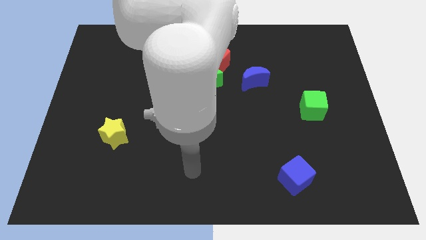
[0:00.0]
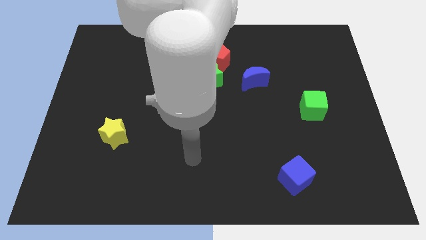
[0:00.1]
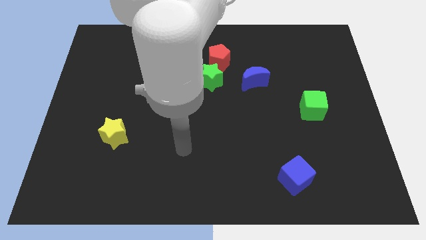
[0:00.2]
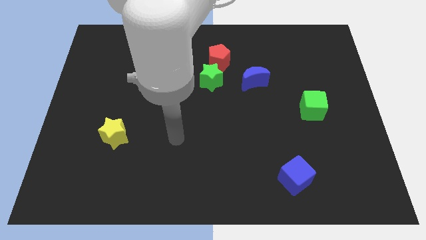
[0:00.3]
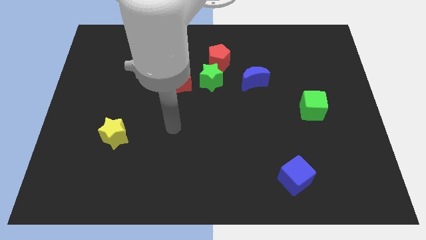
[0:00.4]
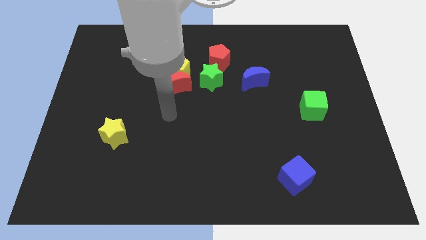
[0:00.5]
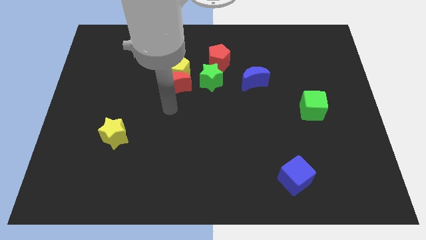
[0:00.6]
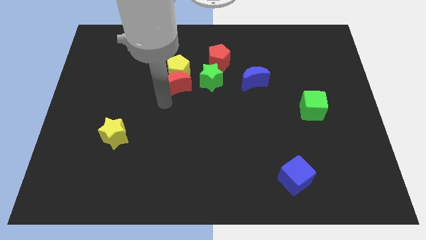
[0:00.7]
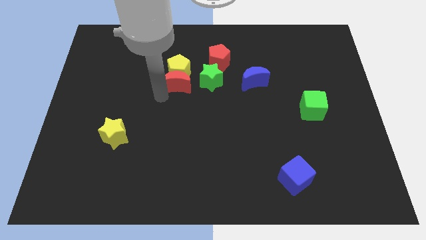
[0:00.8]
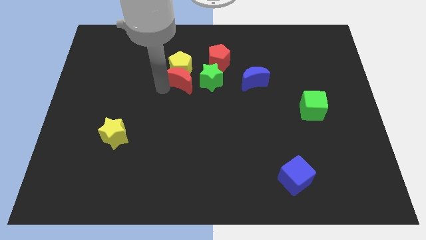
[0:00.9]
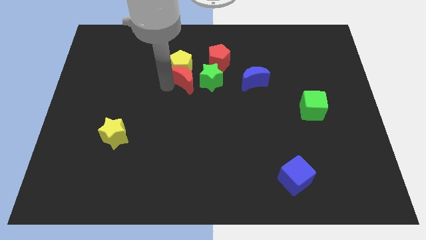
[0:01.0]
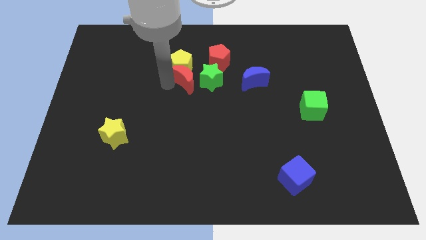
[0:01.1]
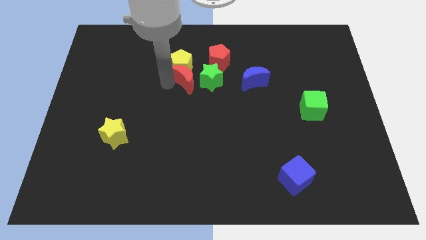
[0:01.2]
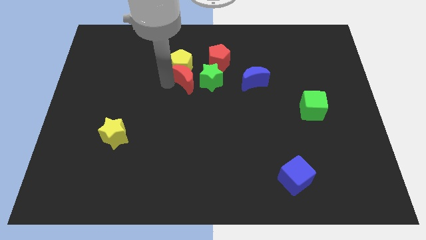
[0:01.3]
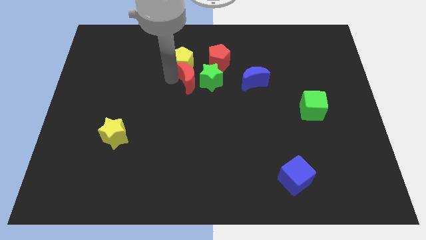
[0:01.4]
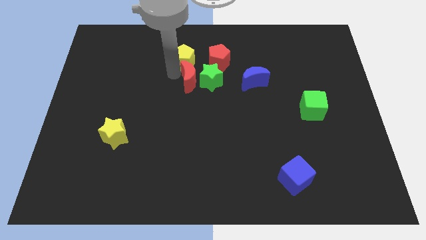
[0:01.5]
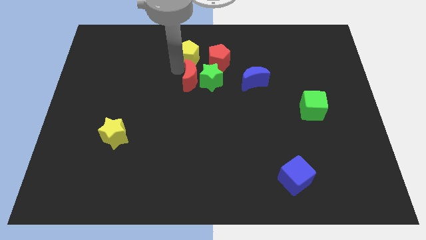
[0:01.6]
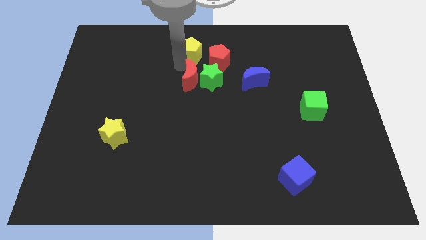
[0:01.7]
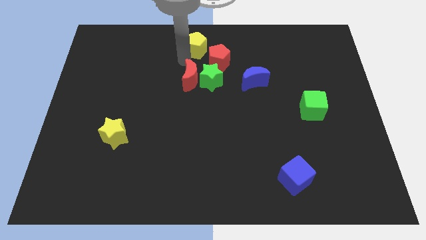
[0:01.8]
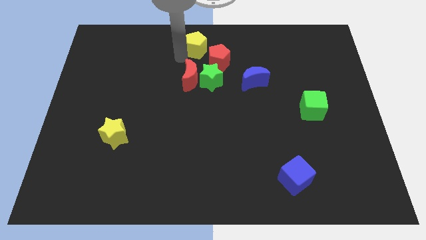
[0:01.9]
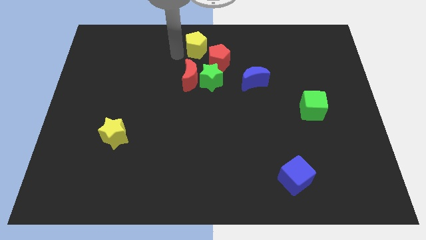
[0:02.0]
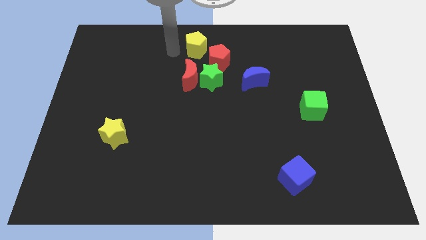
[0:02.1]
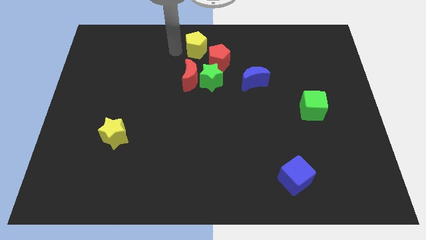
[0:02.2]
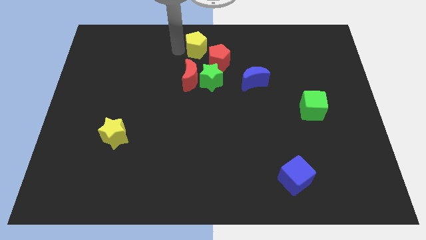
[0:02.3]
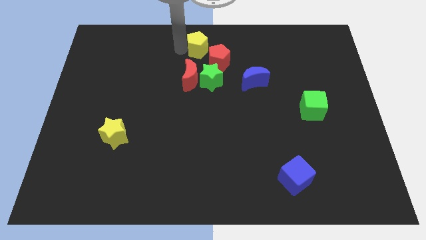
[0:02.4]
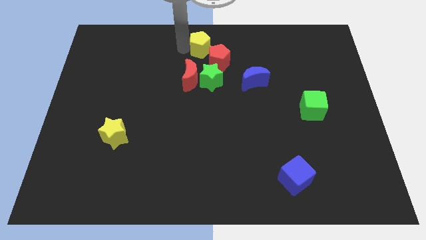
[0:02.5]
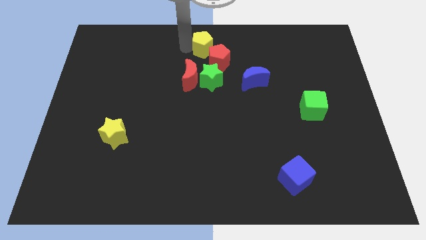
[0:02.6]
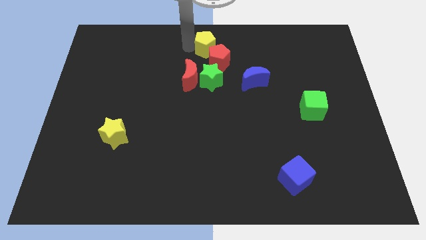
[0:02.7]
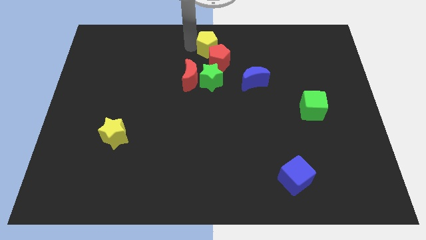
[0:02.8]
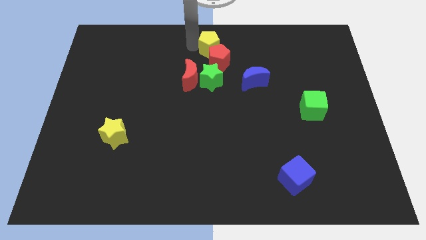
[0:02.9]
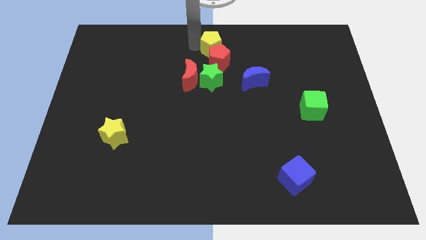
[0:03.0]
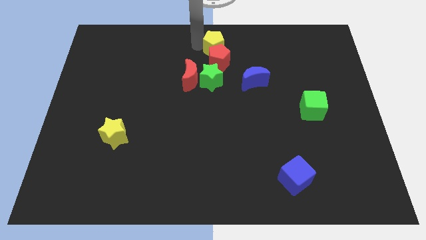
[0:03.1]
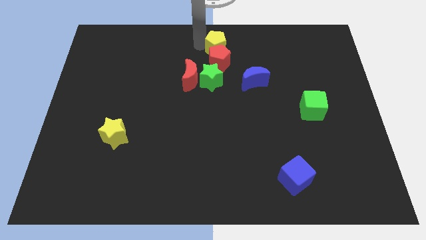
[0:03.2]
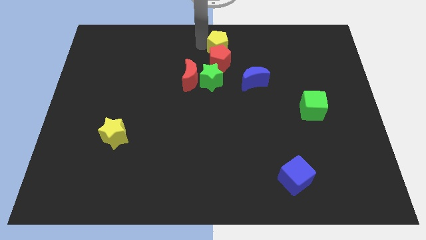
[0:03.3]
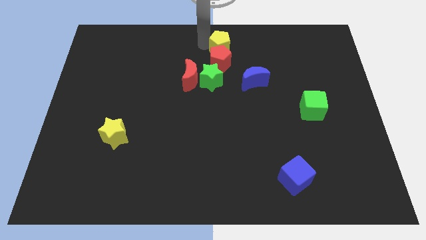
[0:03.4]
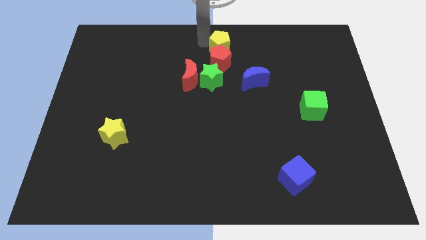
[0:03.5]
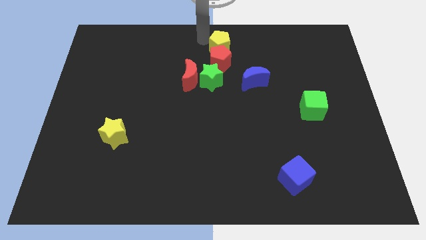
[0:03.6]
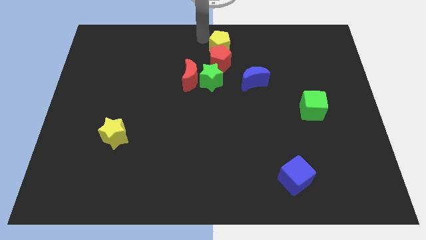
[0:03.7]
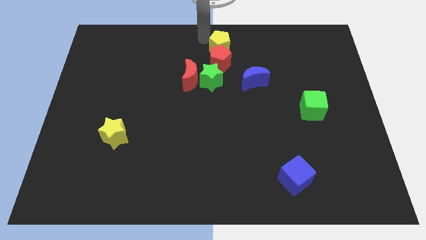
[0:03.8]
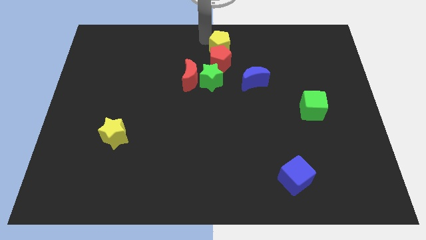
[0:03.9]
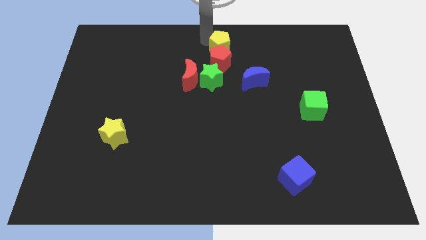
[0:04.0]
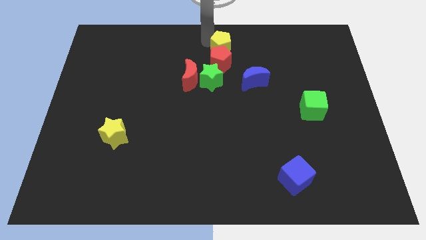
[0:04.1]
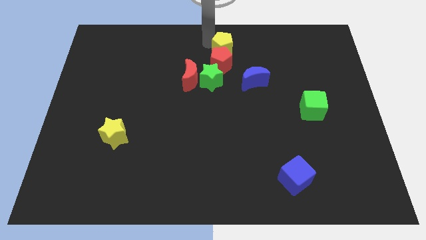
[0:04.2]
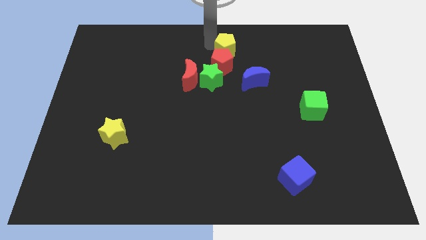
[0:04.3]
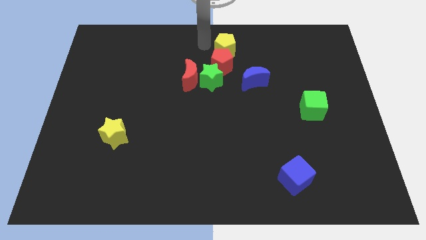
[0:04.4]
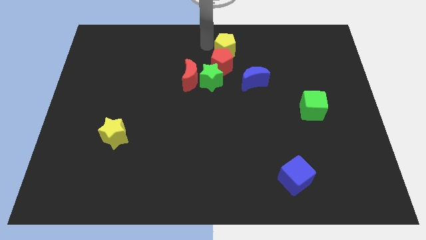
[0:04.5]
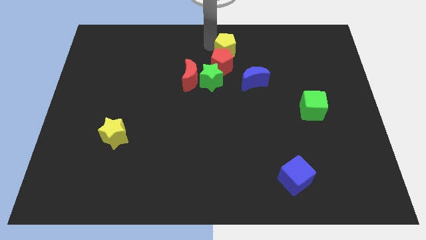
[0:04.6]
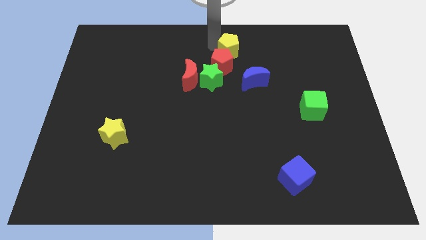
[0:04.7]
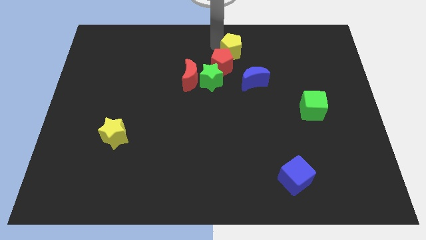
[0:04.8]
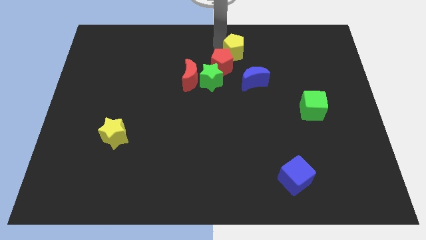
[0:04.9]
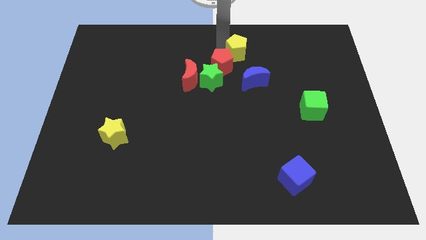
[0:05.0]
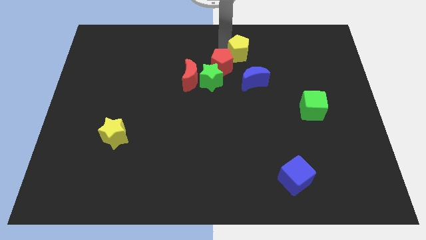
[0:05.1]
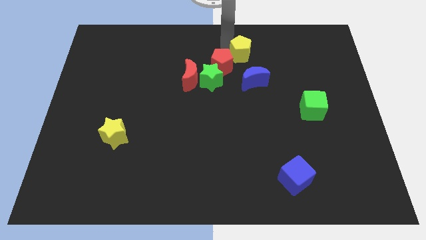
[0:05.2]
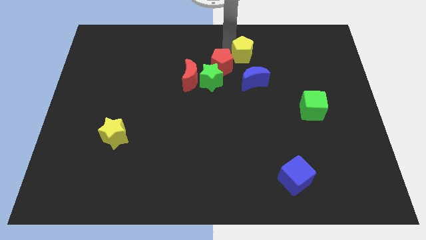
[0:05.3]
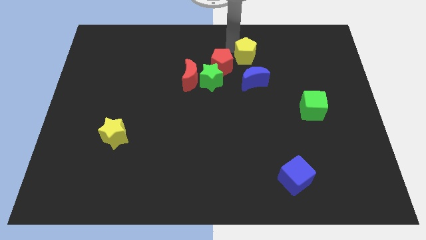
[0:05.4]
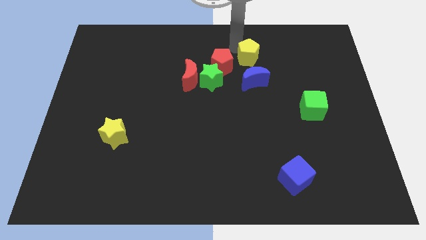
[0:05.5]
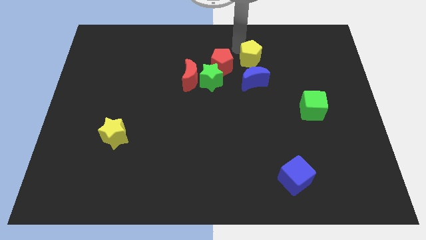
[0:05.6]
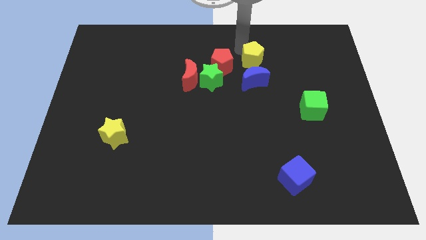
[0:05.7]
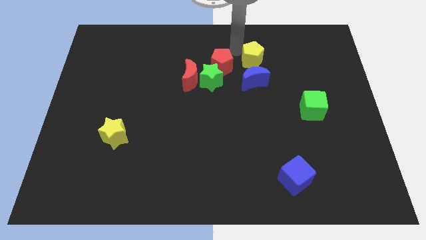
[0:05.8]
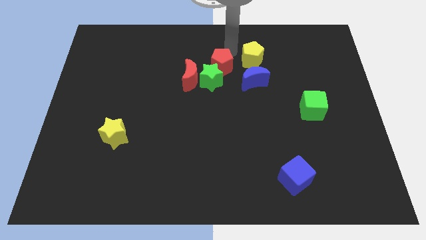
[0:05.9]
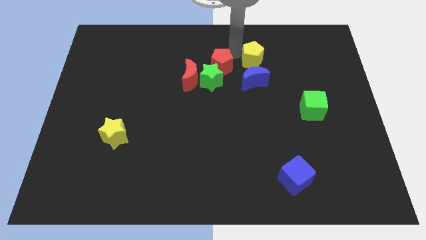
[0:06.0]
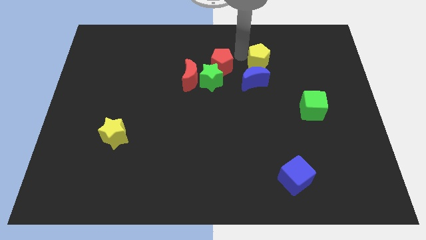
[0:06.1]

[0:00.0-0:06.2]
push the yellow pentagon to the top right of the blue moon

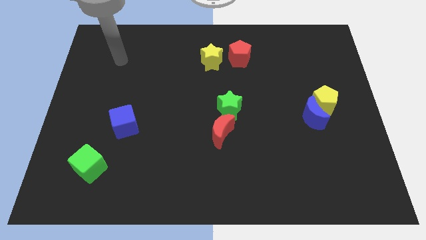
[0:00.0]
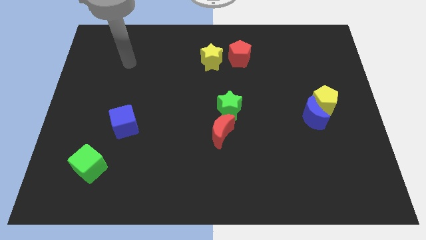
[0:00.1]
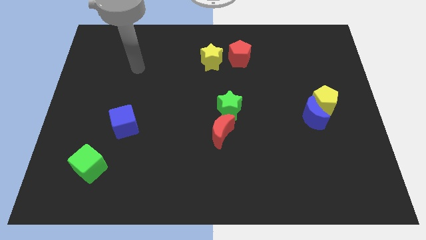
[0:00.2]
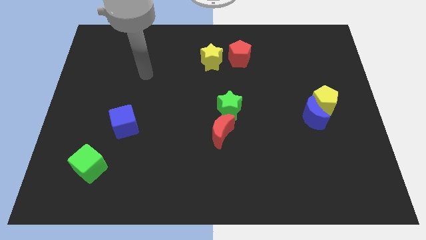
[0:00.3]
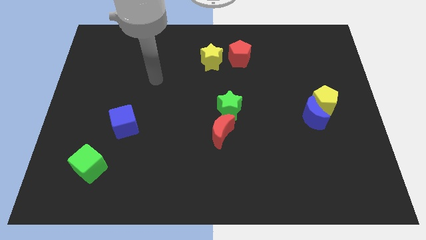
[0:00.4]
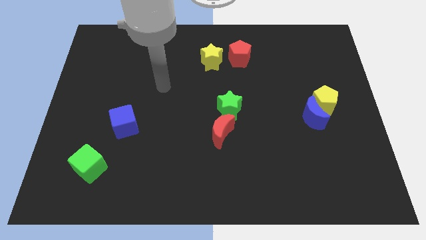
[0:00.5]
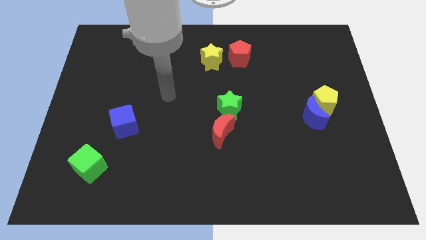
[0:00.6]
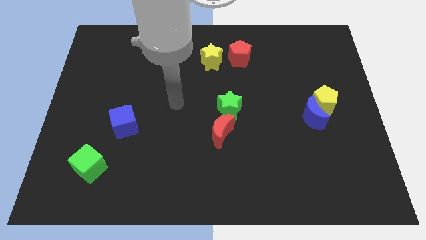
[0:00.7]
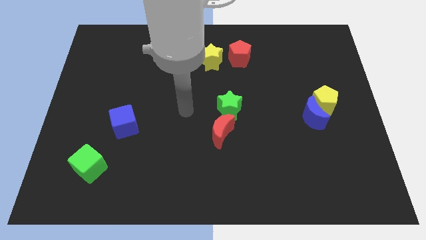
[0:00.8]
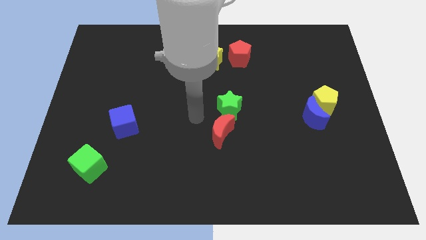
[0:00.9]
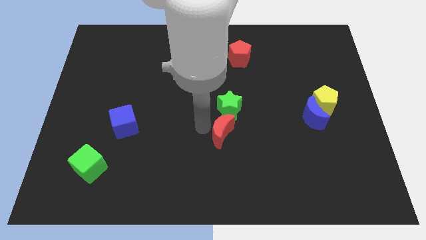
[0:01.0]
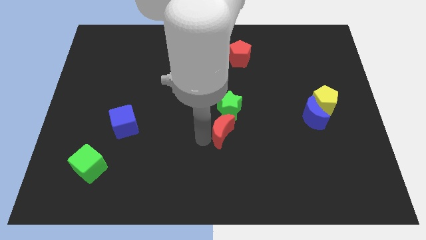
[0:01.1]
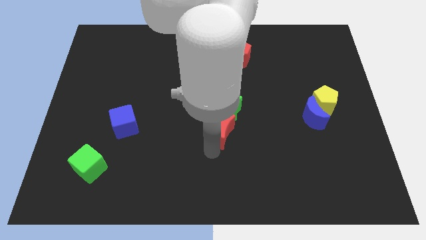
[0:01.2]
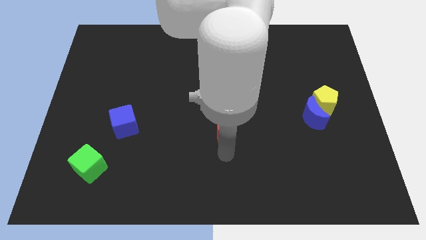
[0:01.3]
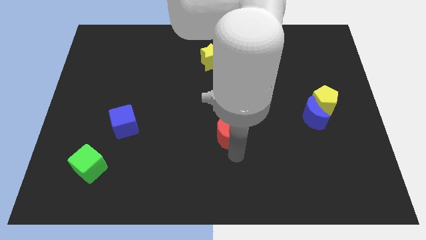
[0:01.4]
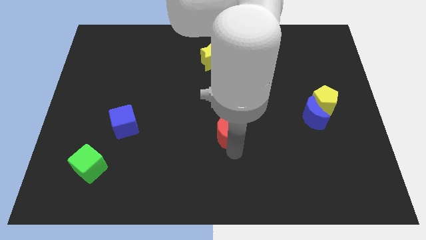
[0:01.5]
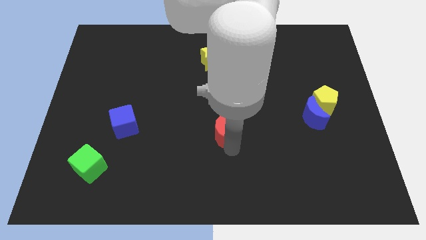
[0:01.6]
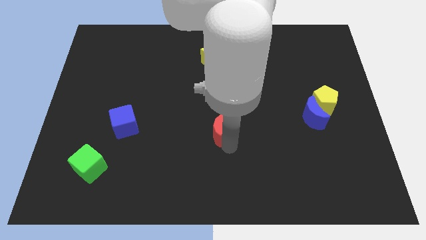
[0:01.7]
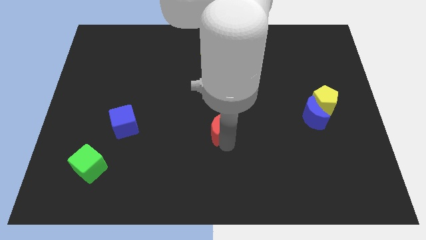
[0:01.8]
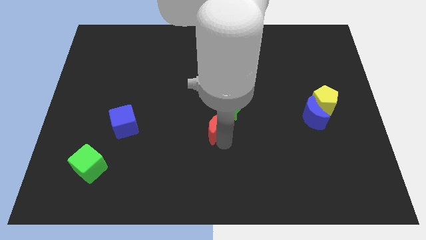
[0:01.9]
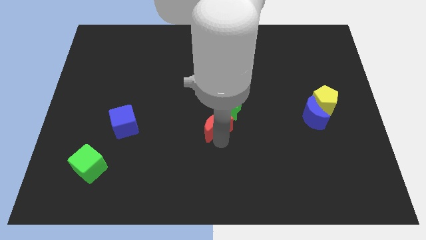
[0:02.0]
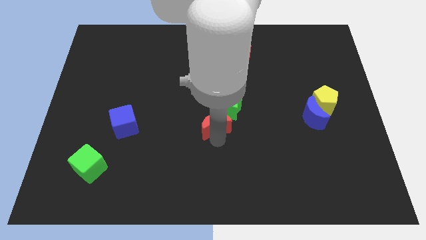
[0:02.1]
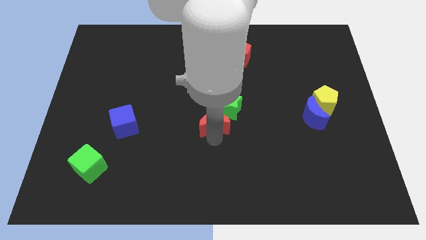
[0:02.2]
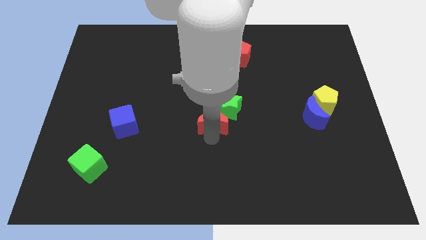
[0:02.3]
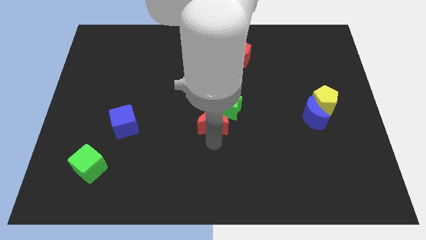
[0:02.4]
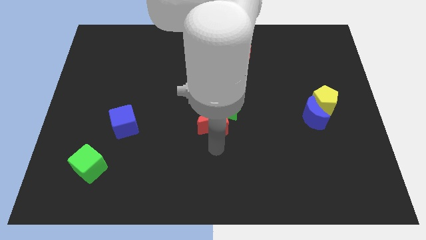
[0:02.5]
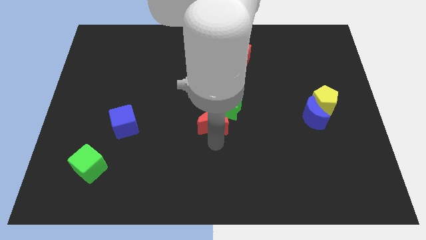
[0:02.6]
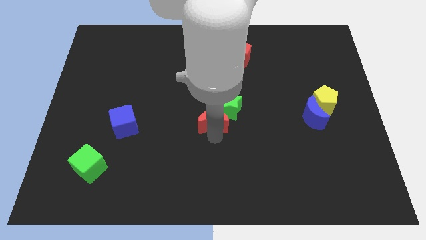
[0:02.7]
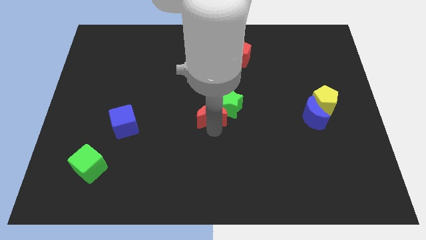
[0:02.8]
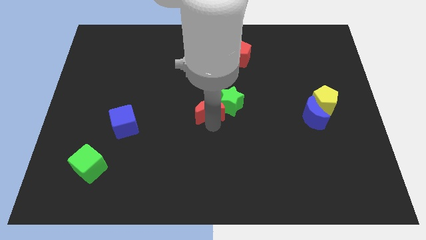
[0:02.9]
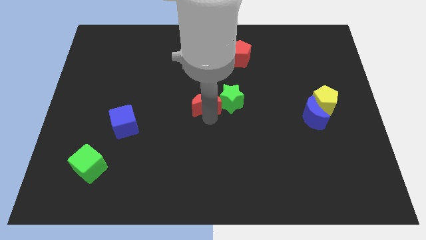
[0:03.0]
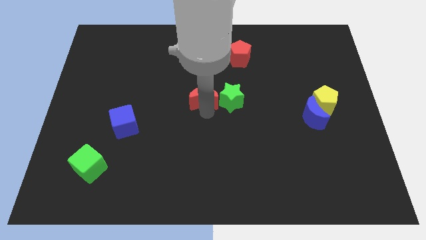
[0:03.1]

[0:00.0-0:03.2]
move the red moon to the top left of the green star
